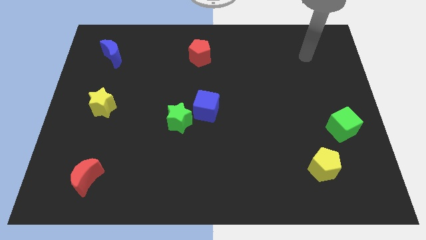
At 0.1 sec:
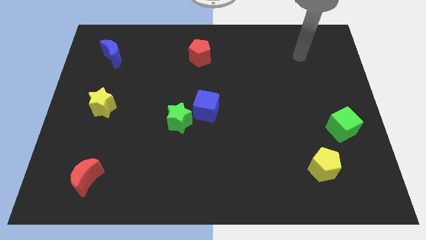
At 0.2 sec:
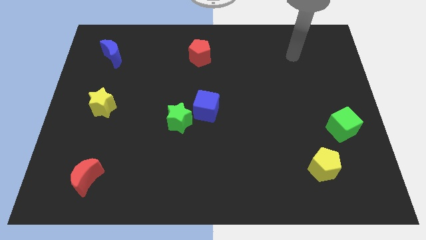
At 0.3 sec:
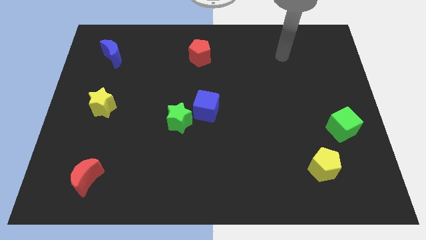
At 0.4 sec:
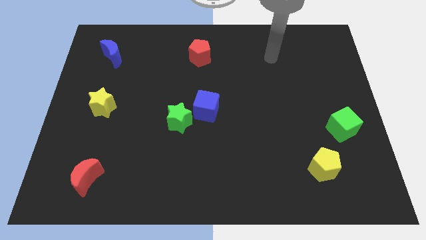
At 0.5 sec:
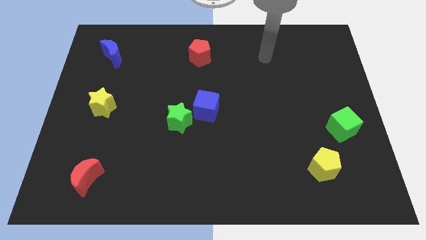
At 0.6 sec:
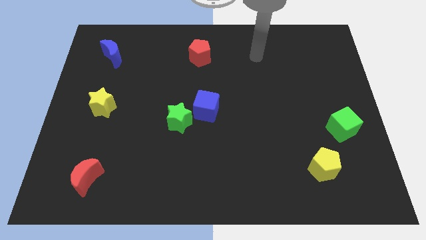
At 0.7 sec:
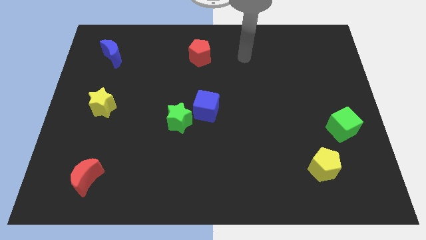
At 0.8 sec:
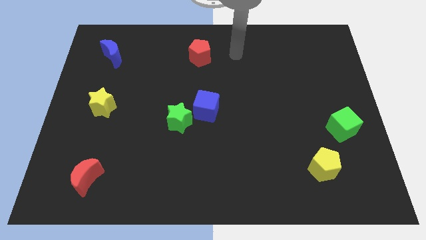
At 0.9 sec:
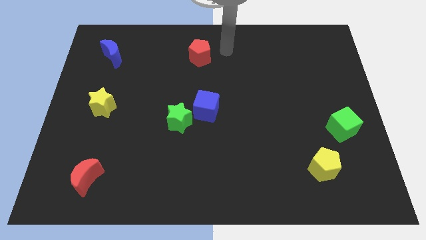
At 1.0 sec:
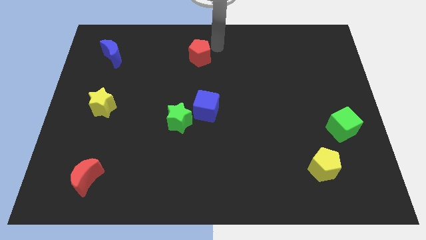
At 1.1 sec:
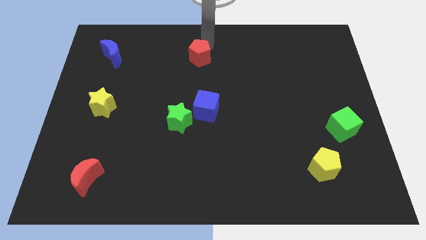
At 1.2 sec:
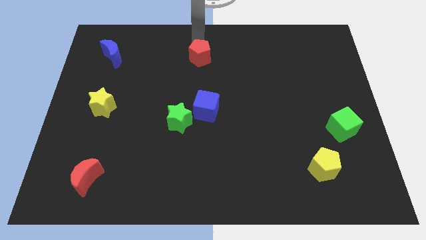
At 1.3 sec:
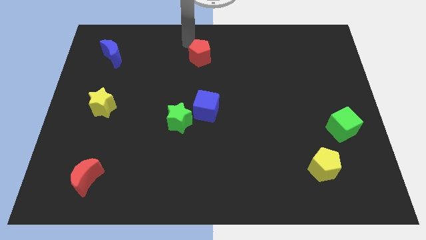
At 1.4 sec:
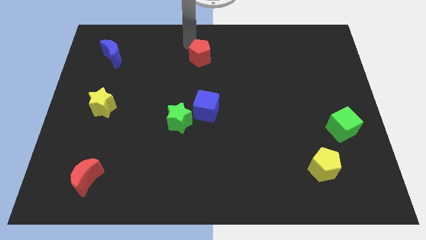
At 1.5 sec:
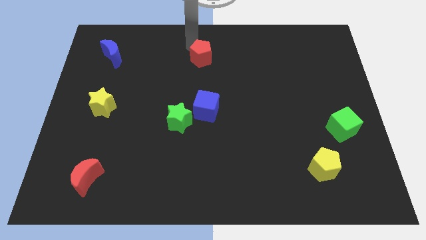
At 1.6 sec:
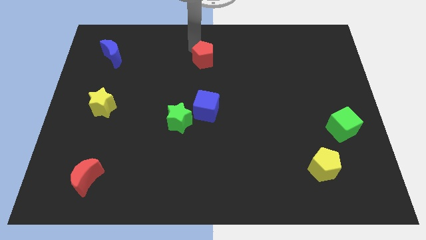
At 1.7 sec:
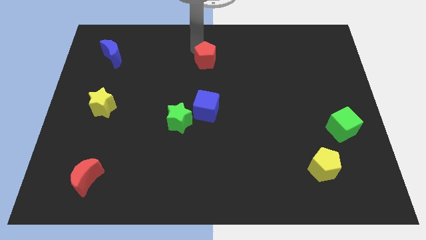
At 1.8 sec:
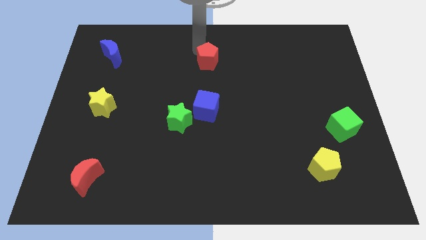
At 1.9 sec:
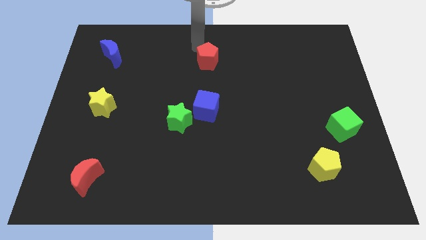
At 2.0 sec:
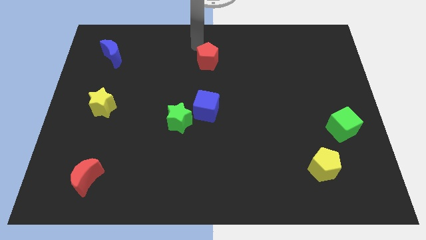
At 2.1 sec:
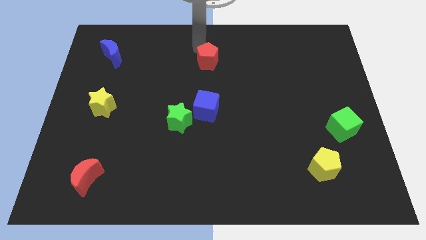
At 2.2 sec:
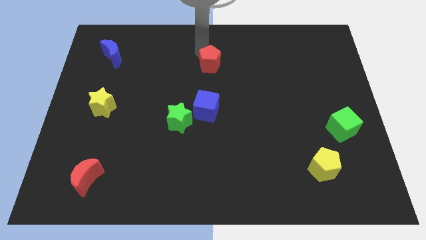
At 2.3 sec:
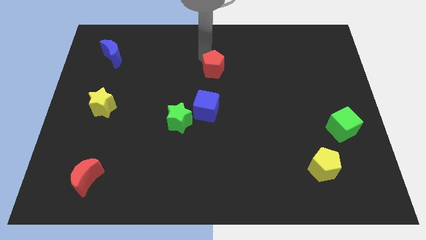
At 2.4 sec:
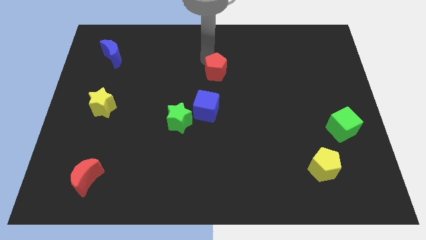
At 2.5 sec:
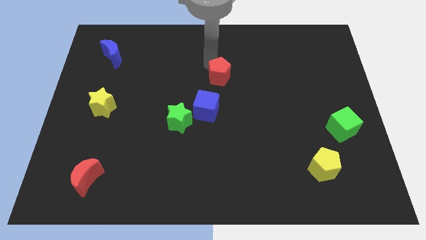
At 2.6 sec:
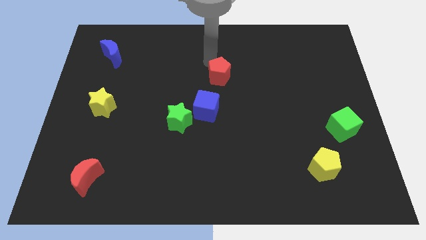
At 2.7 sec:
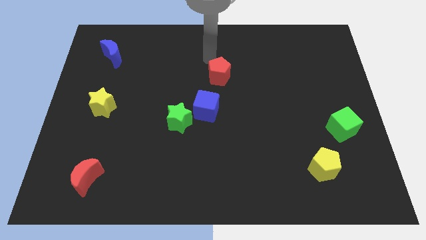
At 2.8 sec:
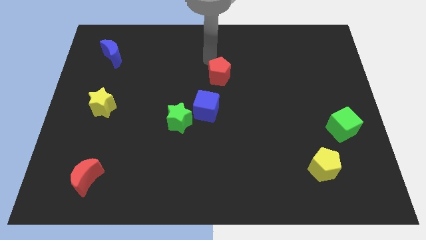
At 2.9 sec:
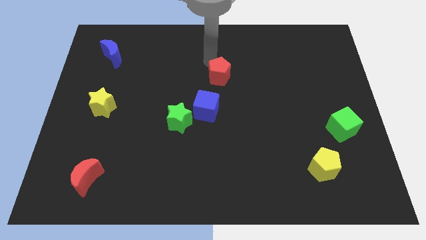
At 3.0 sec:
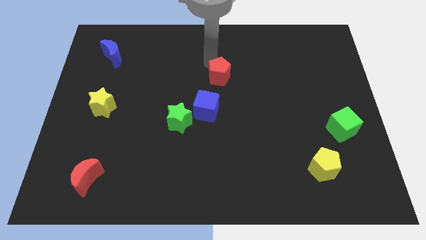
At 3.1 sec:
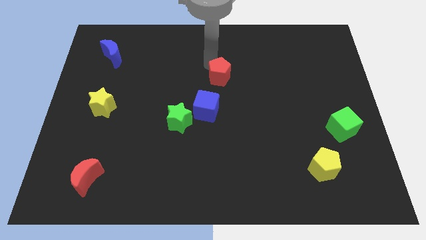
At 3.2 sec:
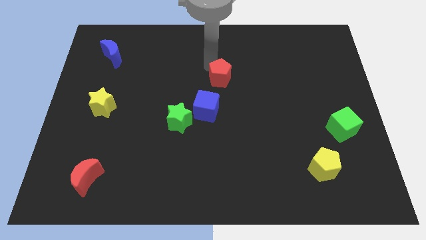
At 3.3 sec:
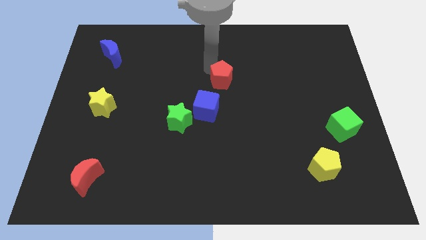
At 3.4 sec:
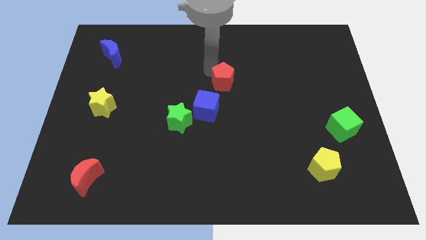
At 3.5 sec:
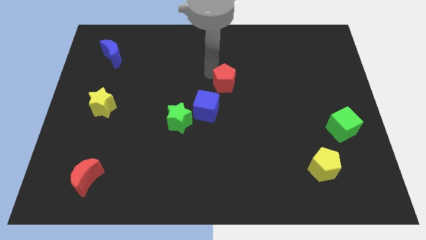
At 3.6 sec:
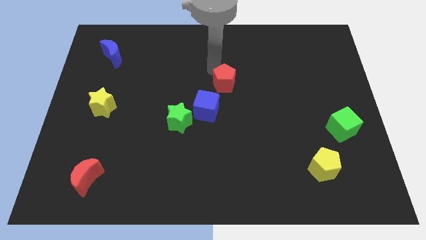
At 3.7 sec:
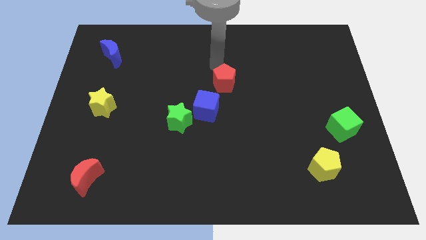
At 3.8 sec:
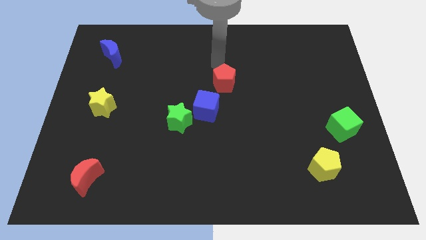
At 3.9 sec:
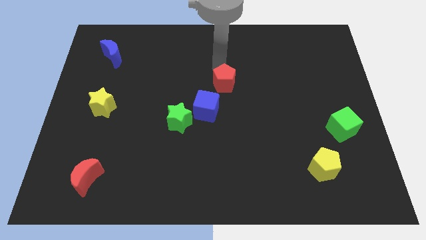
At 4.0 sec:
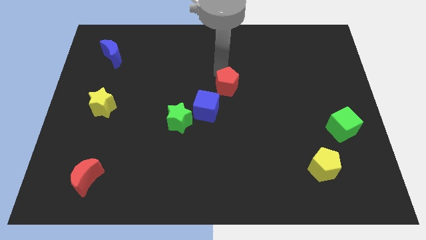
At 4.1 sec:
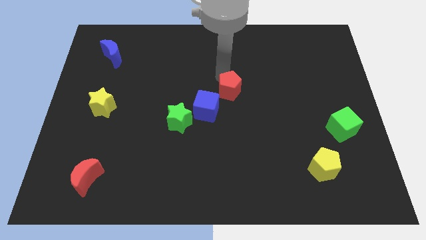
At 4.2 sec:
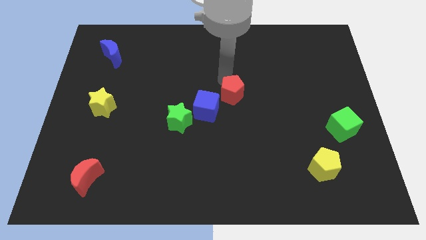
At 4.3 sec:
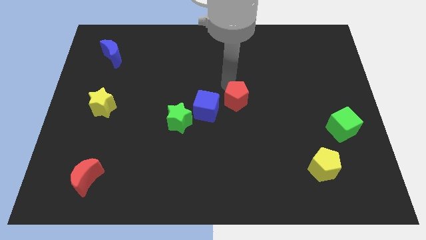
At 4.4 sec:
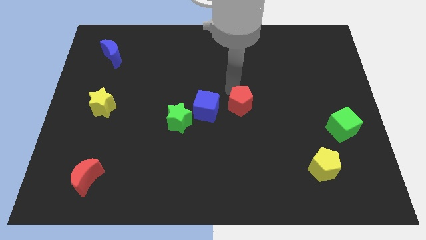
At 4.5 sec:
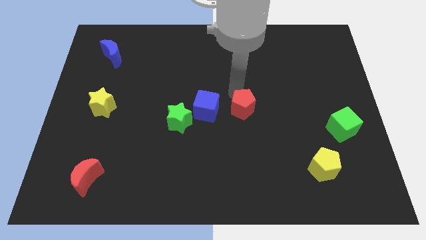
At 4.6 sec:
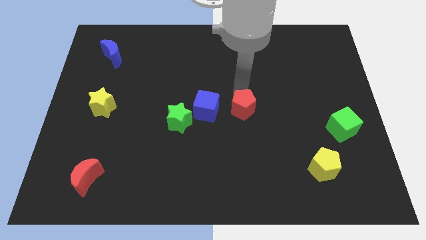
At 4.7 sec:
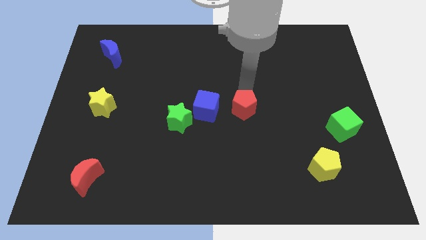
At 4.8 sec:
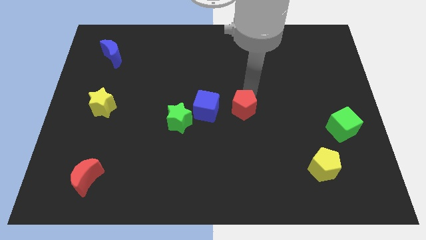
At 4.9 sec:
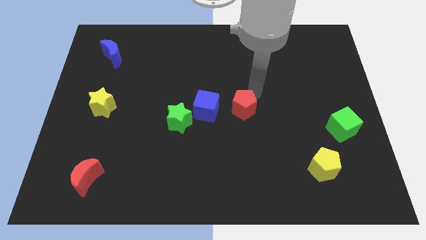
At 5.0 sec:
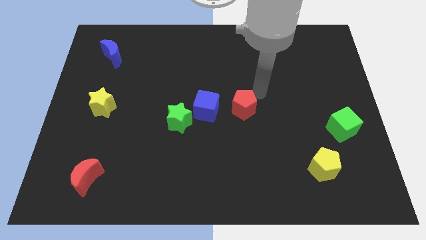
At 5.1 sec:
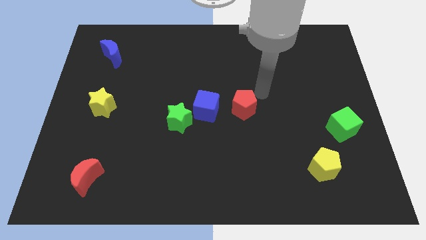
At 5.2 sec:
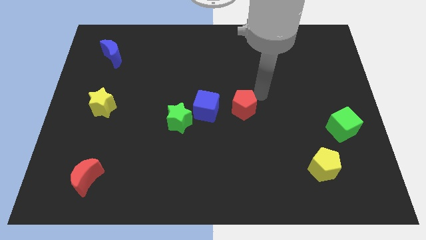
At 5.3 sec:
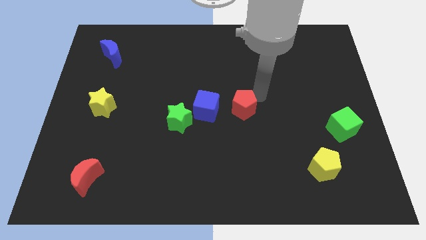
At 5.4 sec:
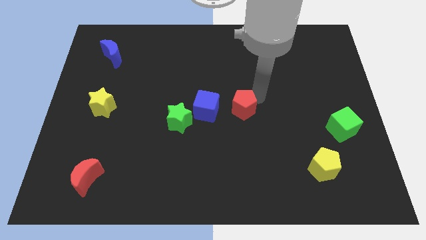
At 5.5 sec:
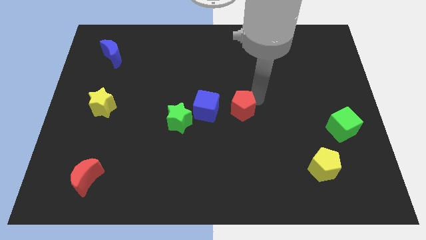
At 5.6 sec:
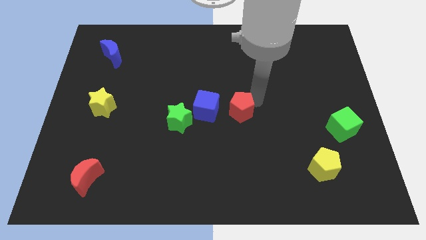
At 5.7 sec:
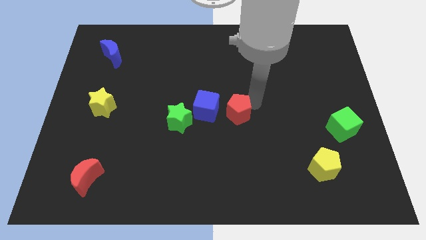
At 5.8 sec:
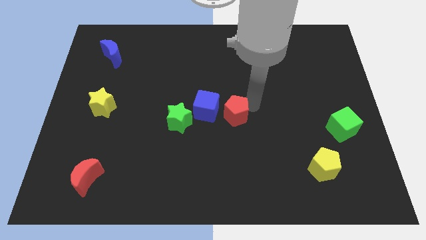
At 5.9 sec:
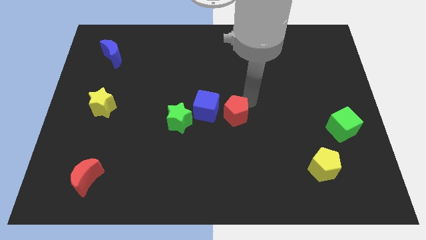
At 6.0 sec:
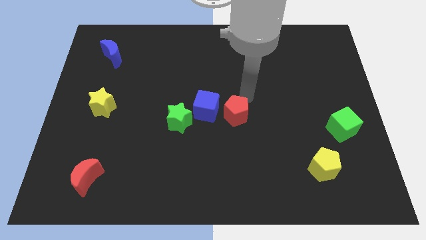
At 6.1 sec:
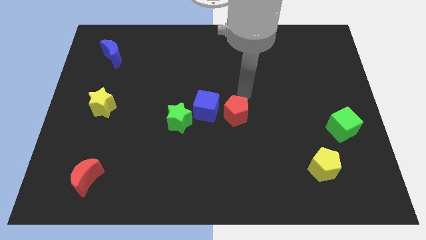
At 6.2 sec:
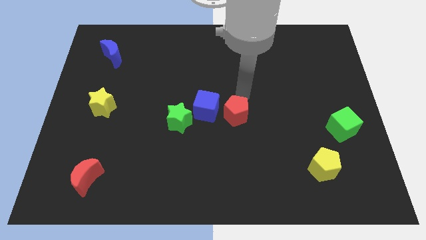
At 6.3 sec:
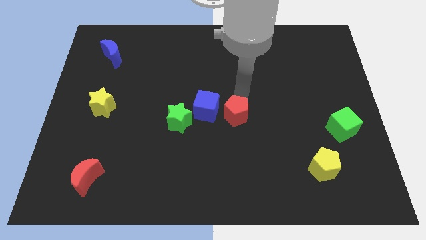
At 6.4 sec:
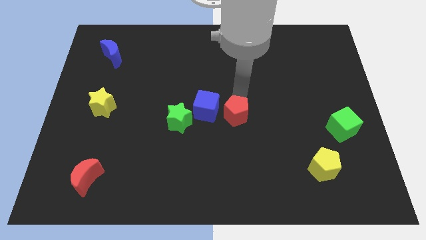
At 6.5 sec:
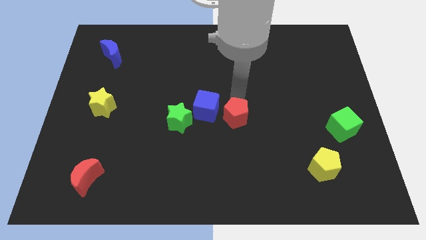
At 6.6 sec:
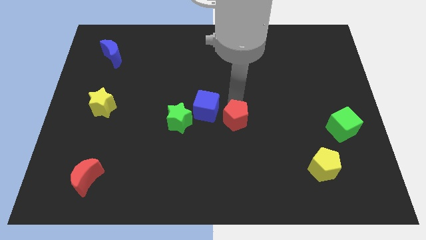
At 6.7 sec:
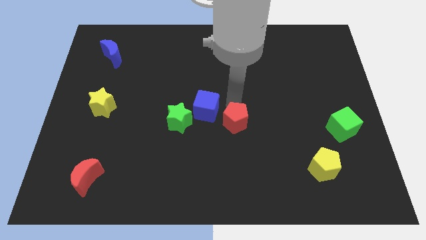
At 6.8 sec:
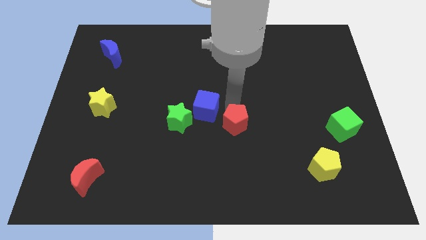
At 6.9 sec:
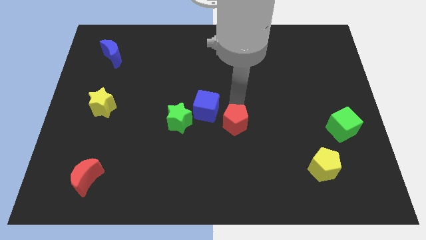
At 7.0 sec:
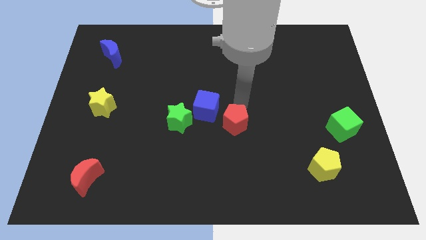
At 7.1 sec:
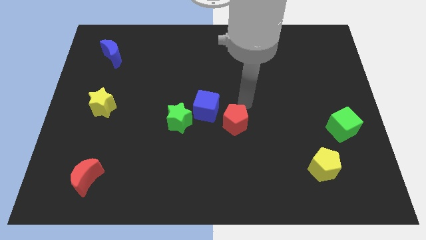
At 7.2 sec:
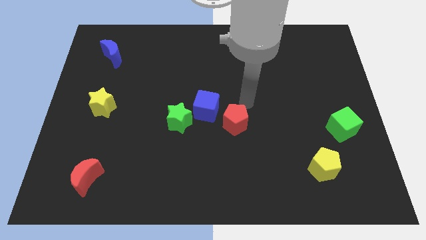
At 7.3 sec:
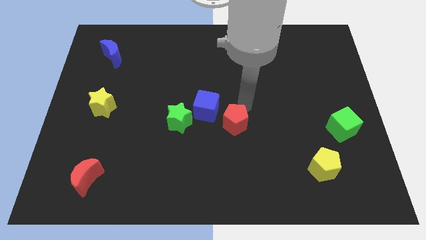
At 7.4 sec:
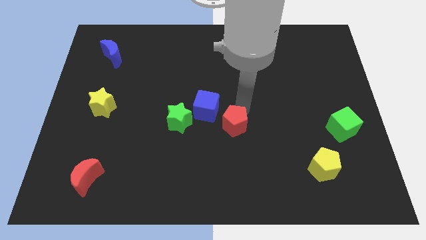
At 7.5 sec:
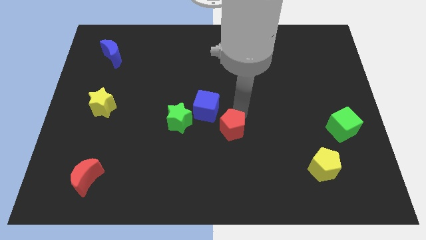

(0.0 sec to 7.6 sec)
slide the red pentagon down

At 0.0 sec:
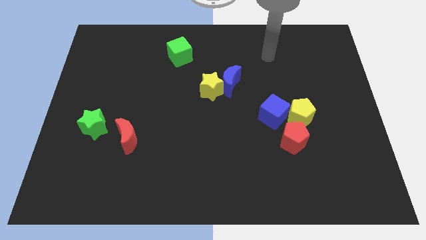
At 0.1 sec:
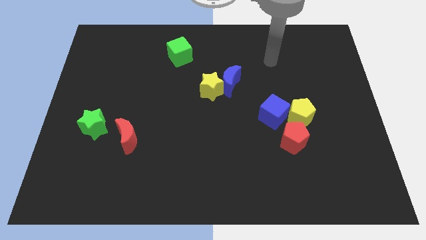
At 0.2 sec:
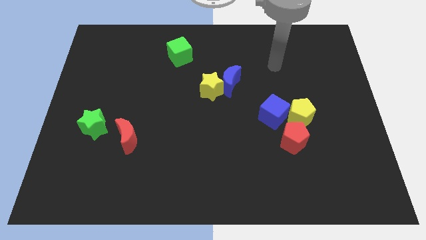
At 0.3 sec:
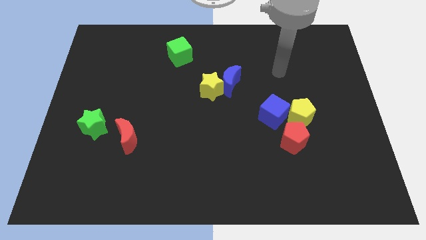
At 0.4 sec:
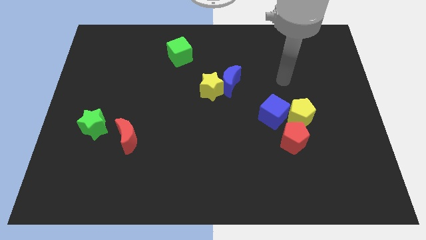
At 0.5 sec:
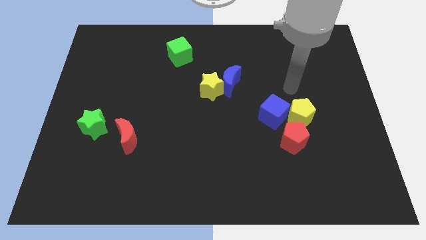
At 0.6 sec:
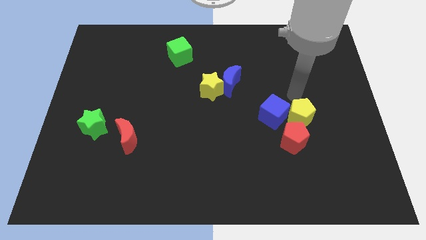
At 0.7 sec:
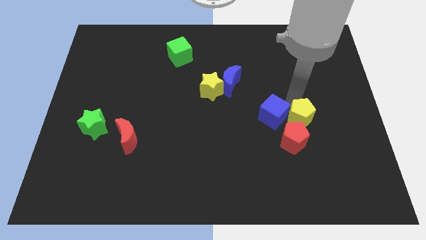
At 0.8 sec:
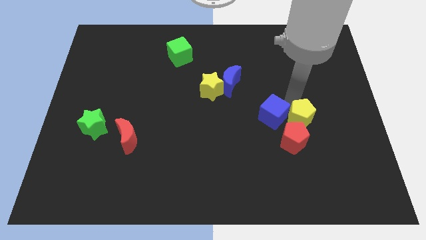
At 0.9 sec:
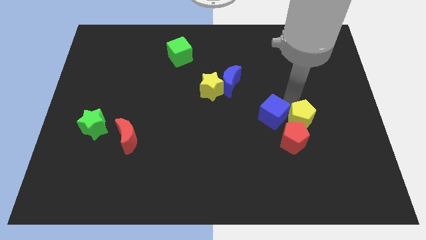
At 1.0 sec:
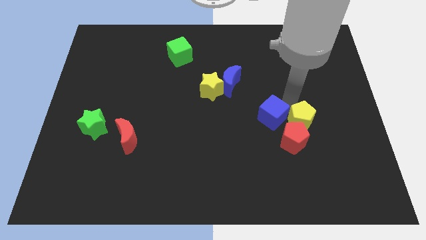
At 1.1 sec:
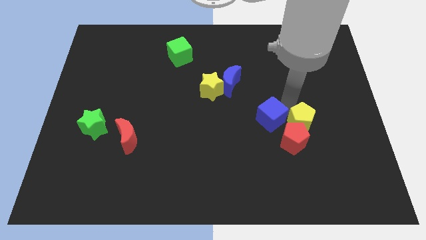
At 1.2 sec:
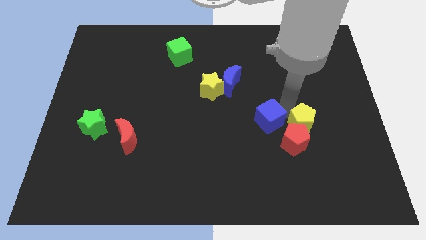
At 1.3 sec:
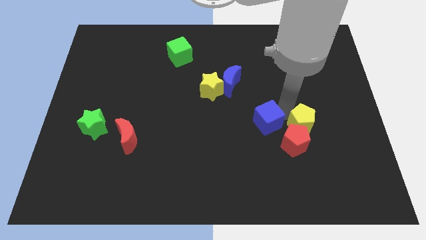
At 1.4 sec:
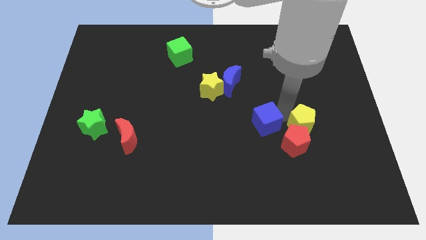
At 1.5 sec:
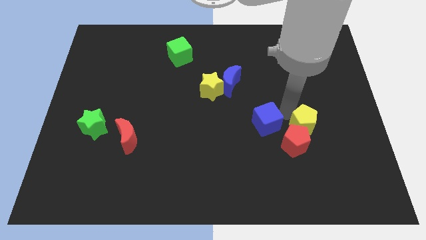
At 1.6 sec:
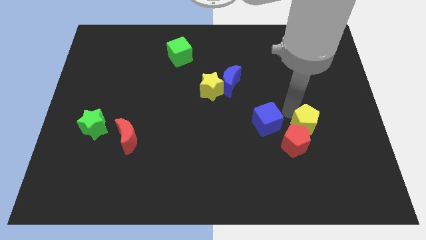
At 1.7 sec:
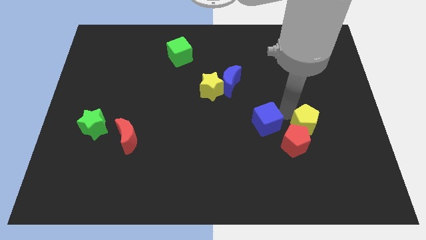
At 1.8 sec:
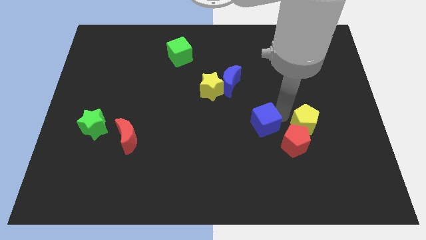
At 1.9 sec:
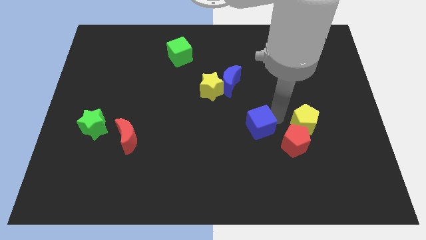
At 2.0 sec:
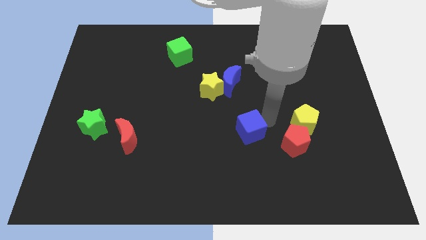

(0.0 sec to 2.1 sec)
slide the blue cube diagonally down and left slightly
